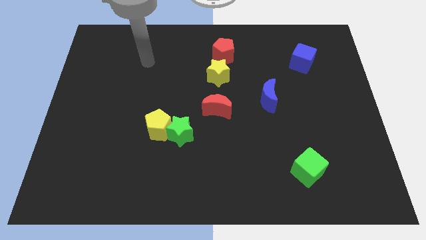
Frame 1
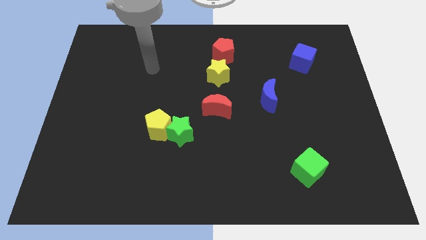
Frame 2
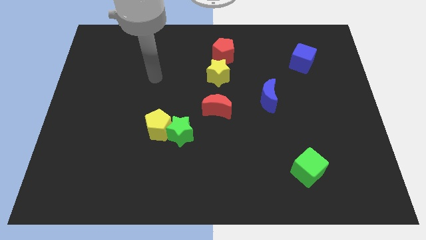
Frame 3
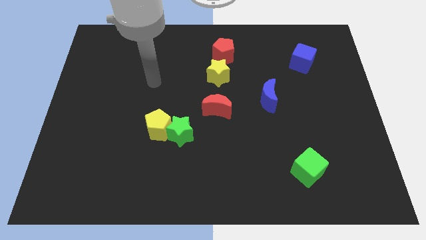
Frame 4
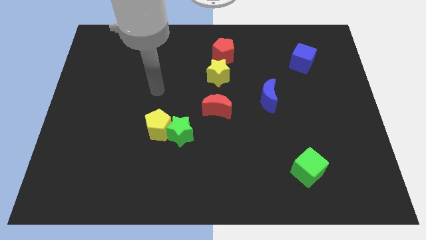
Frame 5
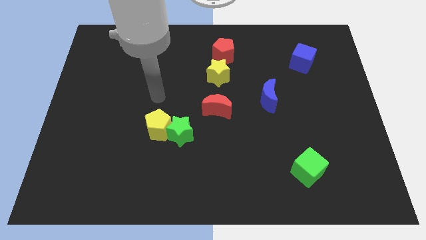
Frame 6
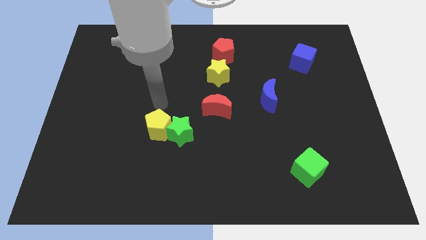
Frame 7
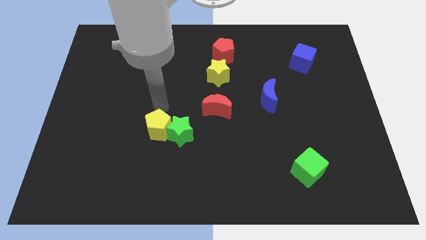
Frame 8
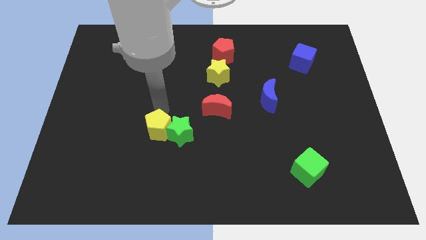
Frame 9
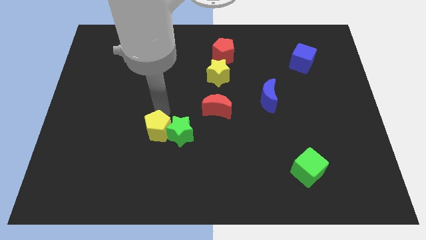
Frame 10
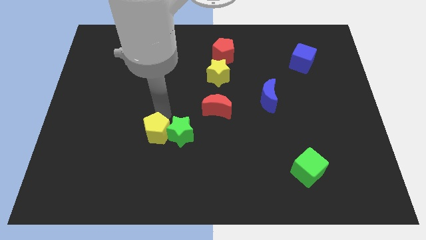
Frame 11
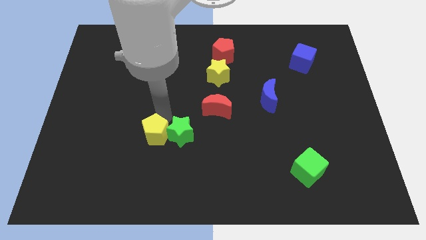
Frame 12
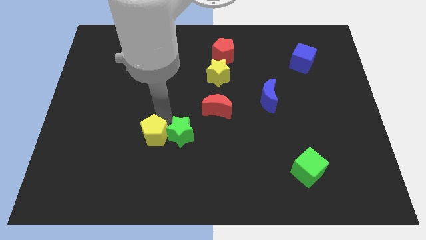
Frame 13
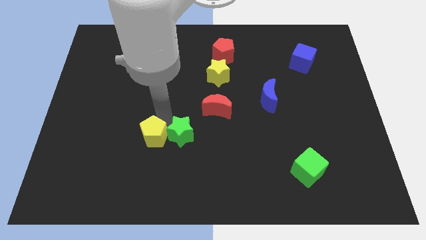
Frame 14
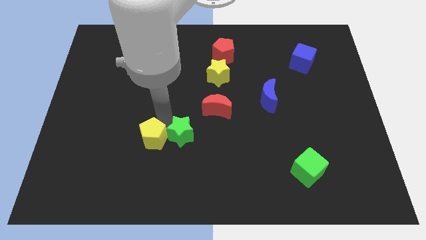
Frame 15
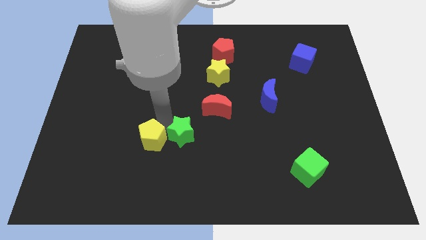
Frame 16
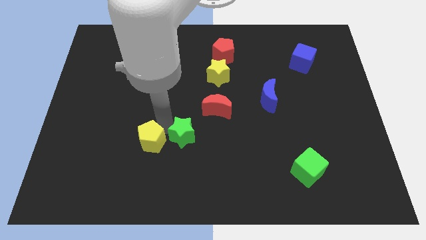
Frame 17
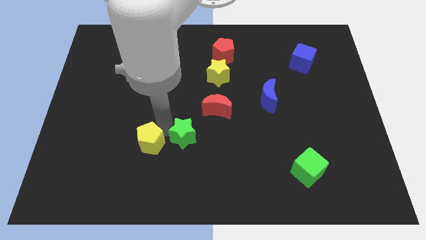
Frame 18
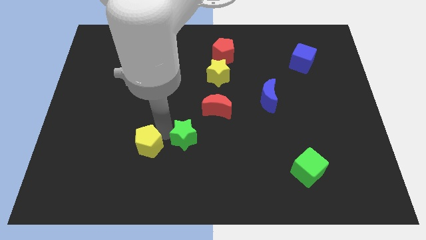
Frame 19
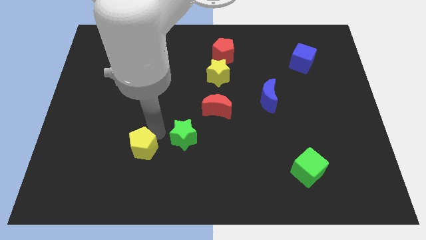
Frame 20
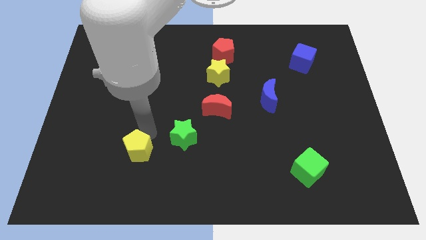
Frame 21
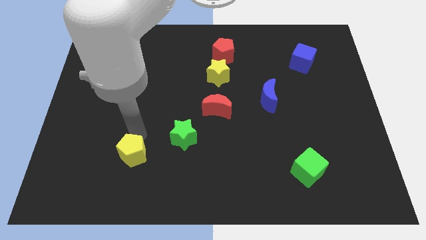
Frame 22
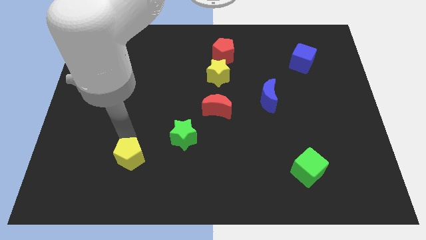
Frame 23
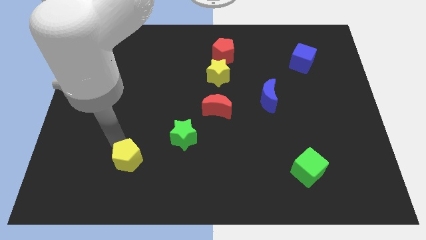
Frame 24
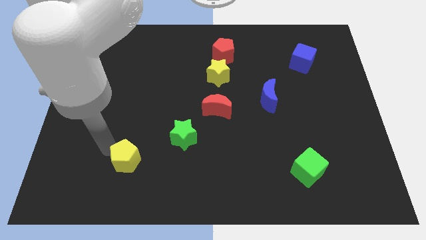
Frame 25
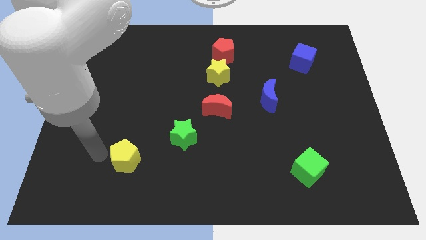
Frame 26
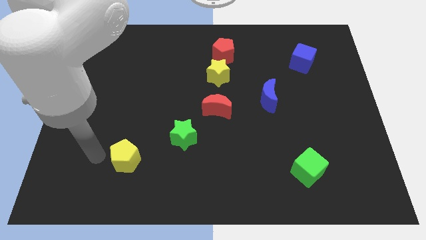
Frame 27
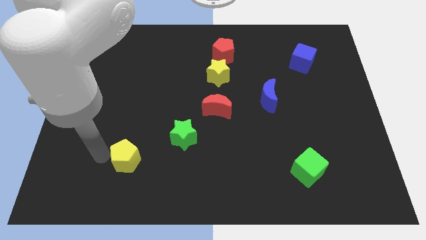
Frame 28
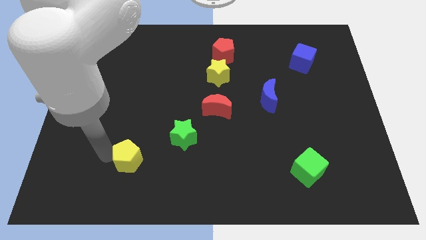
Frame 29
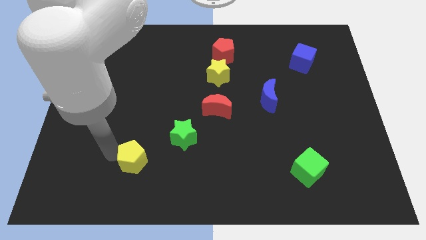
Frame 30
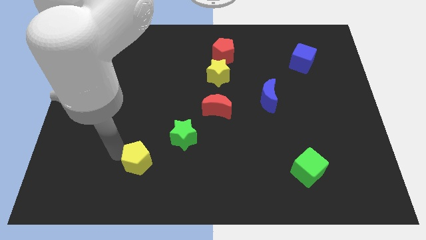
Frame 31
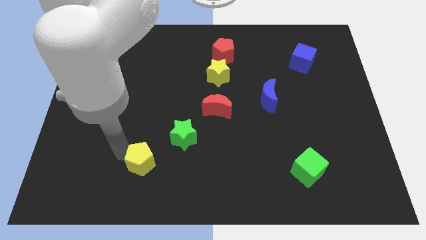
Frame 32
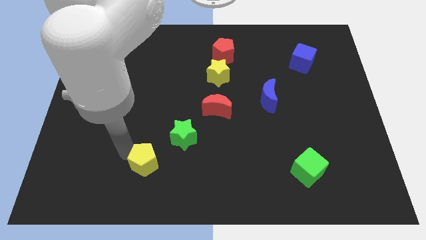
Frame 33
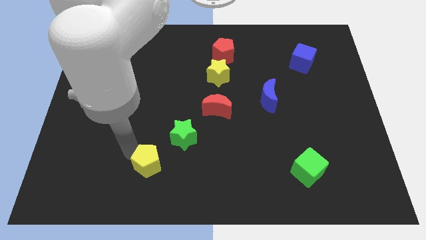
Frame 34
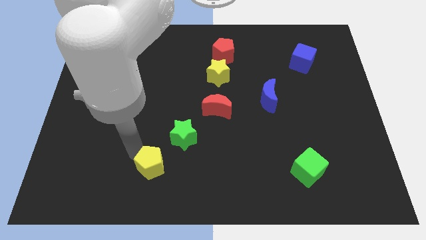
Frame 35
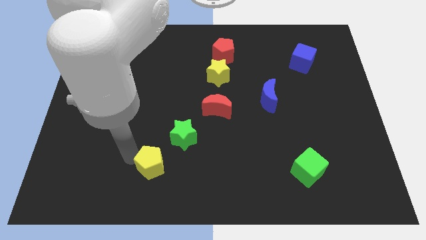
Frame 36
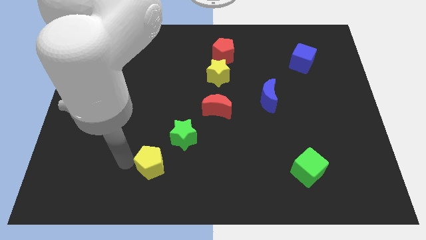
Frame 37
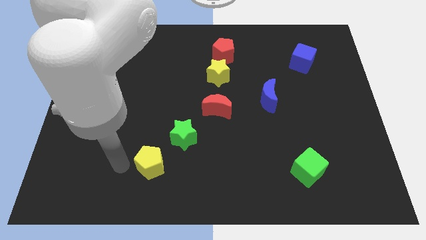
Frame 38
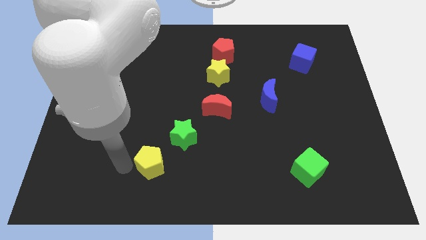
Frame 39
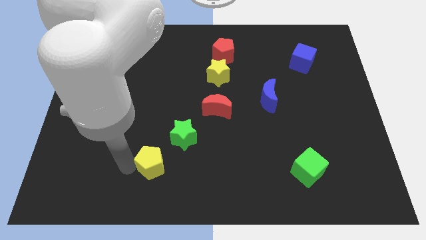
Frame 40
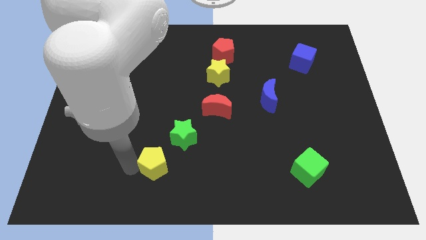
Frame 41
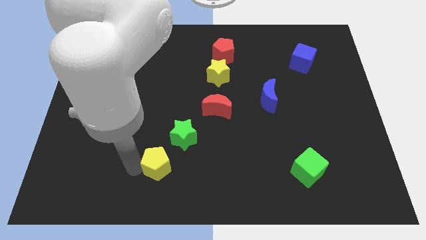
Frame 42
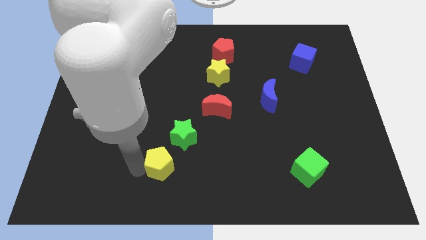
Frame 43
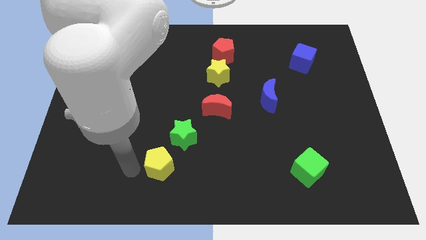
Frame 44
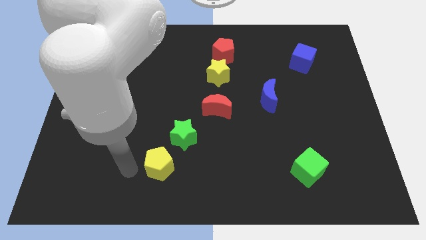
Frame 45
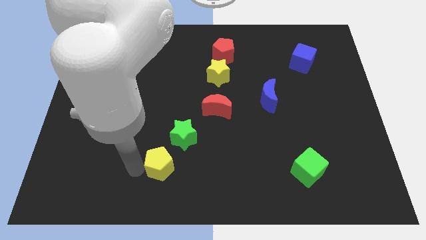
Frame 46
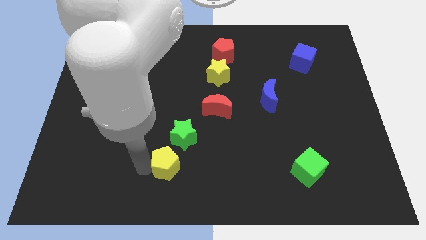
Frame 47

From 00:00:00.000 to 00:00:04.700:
move the yellow pentagon a little downwards and then right

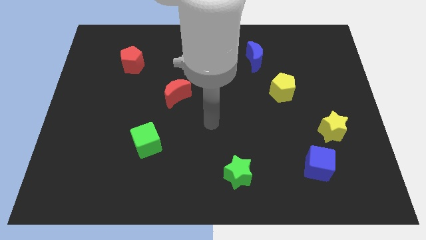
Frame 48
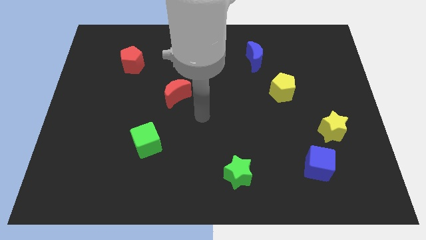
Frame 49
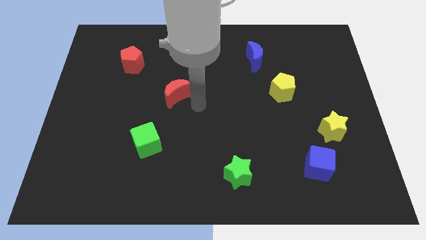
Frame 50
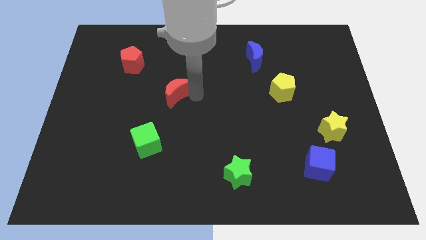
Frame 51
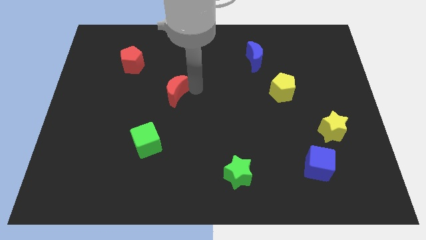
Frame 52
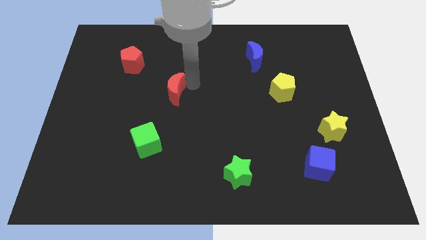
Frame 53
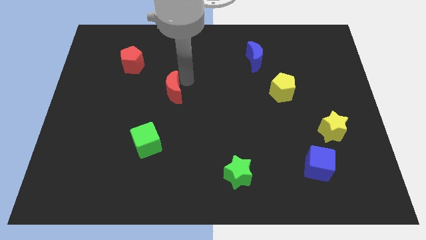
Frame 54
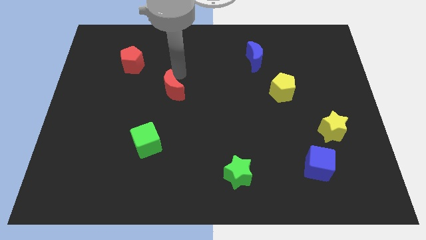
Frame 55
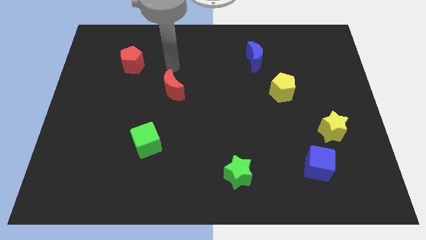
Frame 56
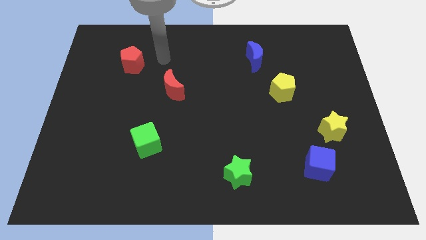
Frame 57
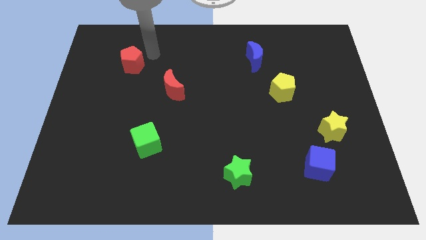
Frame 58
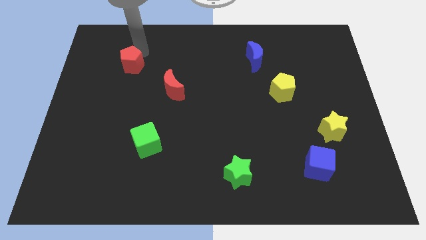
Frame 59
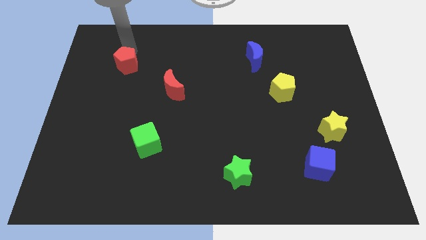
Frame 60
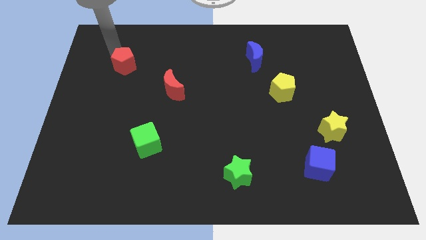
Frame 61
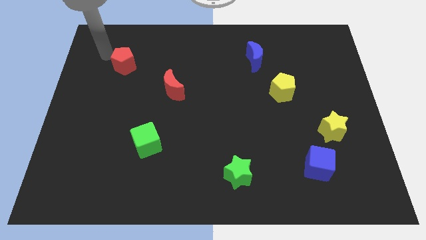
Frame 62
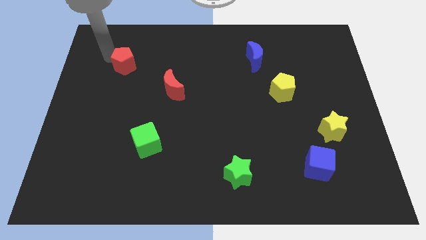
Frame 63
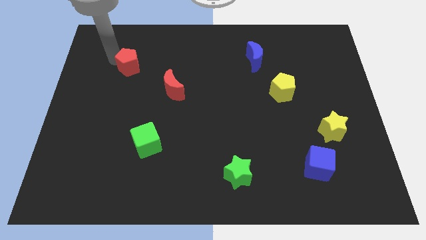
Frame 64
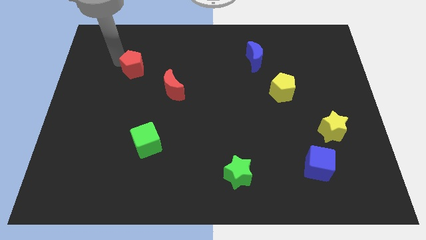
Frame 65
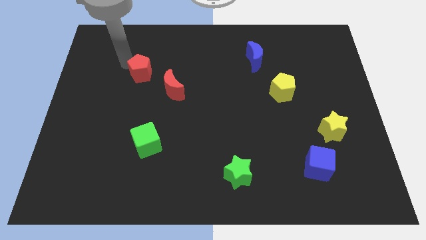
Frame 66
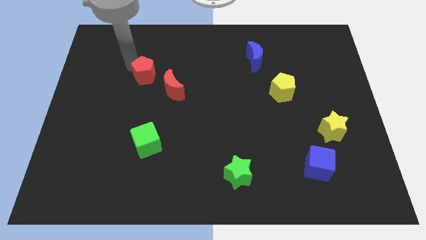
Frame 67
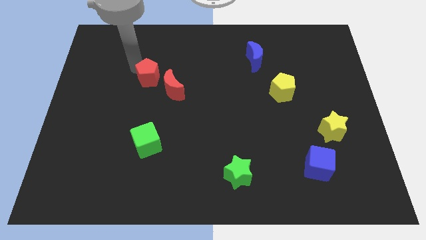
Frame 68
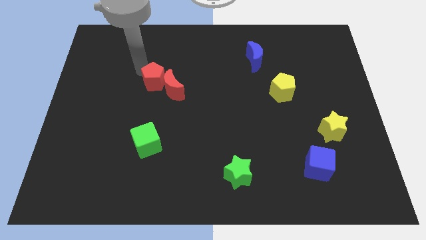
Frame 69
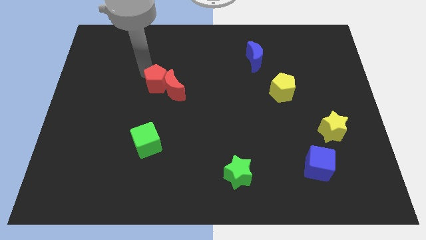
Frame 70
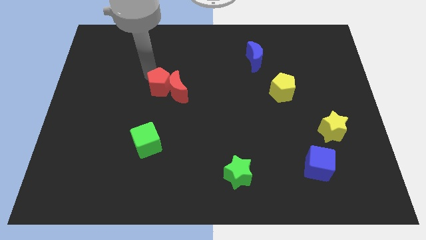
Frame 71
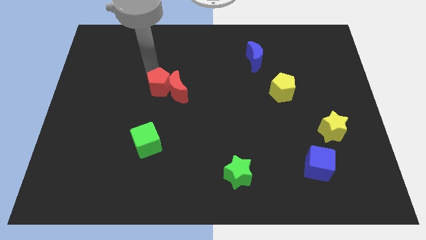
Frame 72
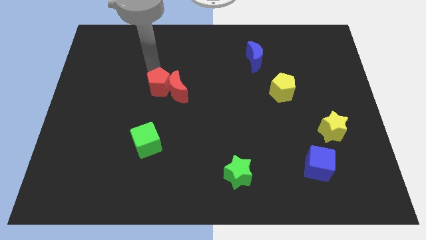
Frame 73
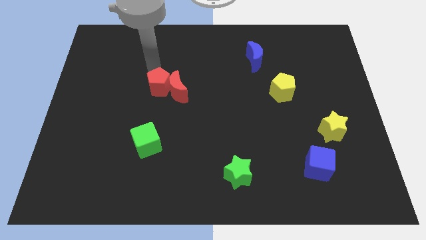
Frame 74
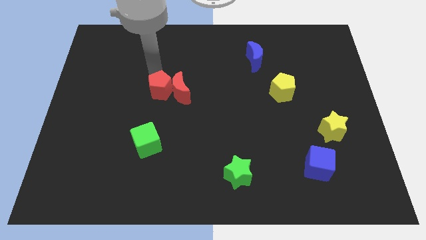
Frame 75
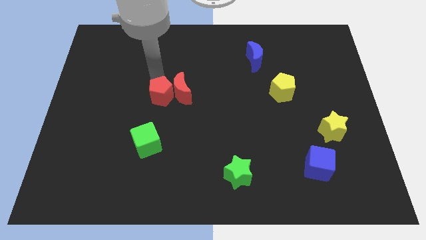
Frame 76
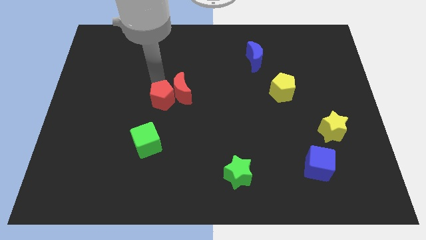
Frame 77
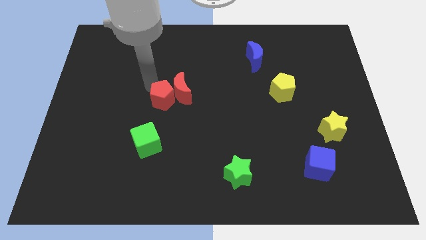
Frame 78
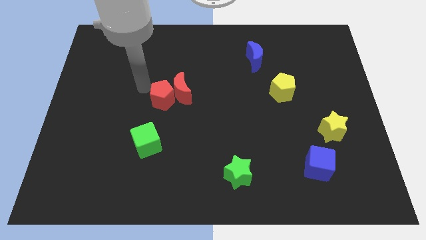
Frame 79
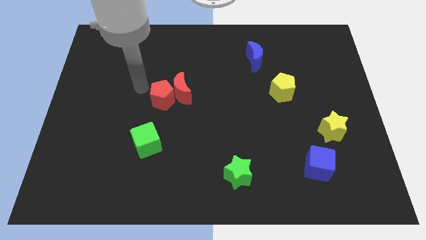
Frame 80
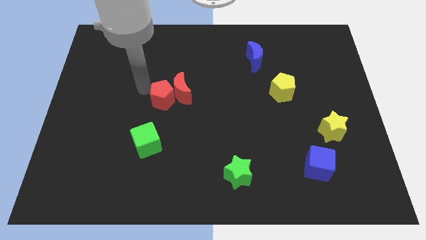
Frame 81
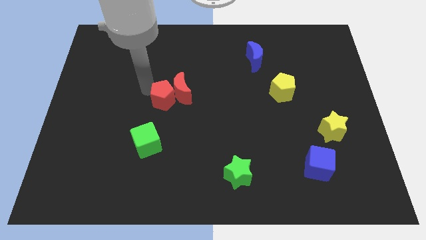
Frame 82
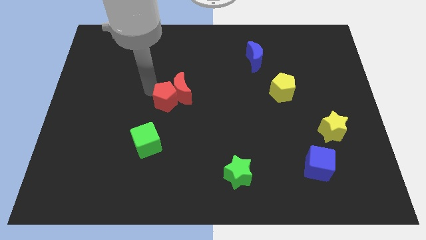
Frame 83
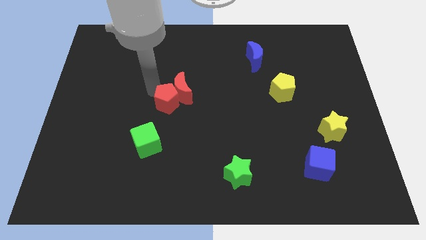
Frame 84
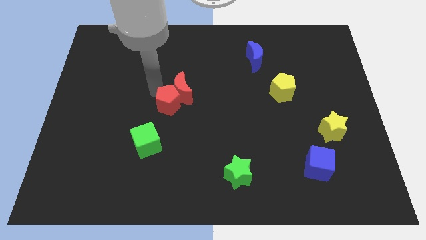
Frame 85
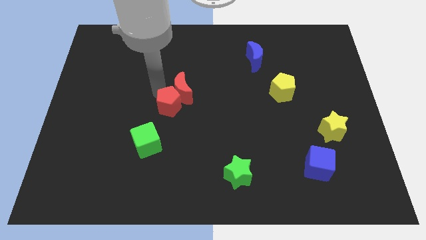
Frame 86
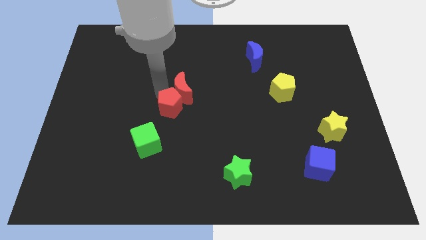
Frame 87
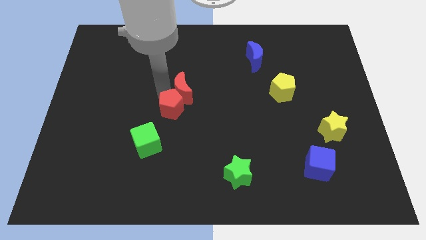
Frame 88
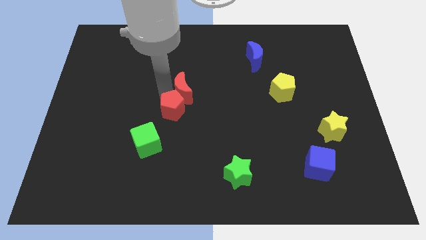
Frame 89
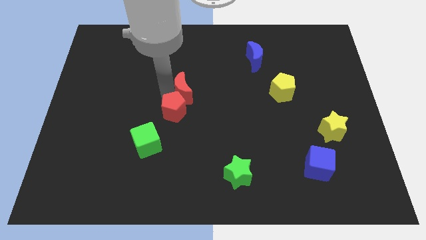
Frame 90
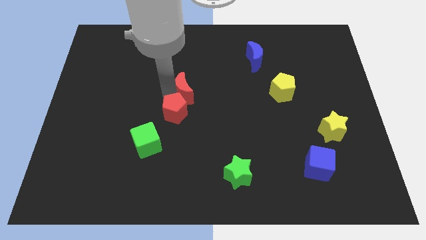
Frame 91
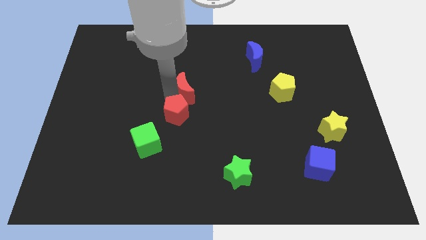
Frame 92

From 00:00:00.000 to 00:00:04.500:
push the red pentagon diagonally downwards and right
